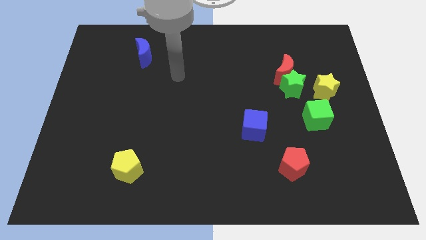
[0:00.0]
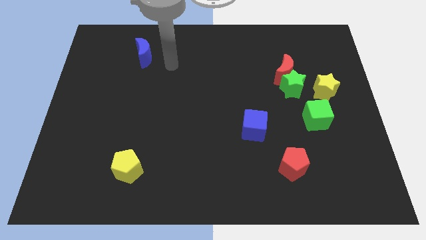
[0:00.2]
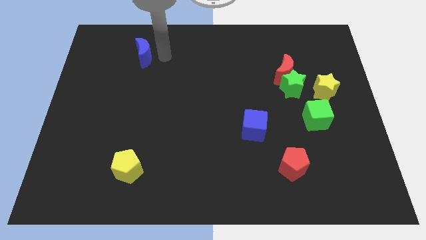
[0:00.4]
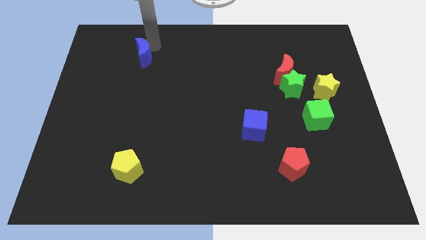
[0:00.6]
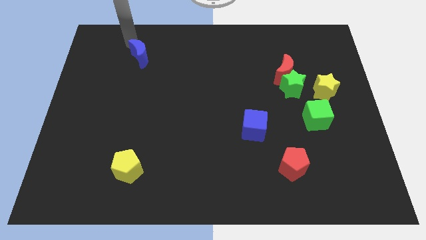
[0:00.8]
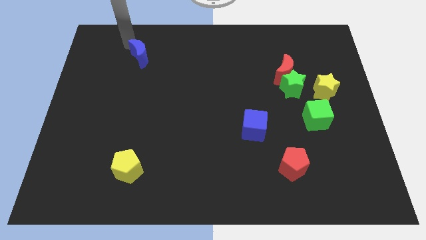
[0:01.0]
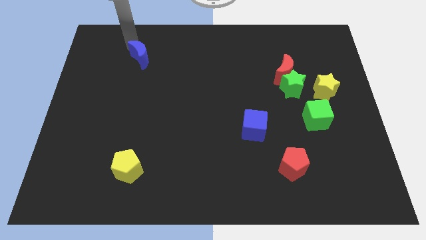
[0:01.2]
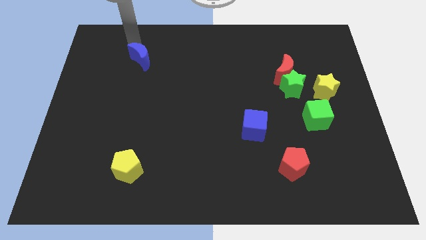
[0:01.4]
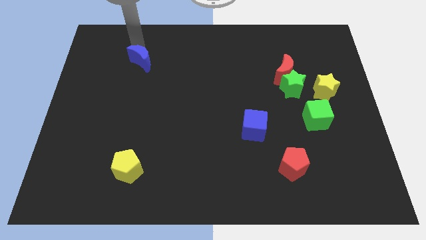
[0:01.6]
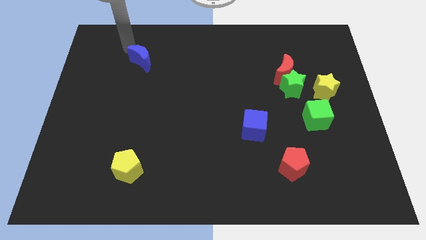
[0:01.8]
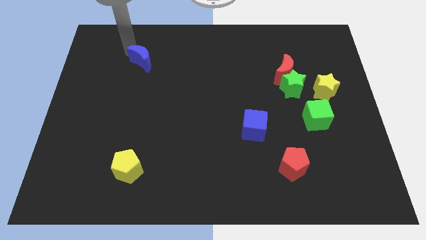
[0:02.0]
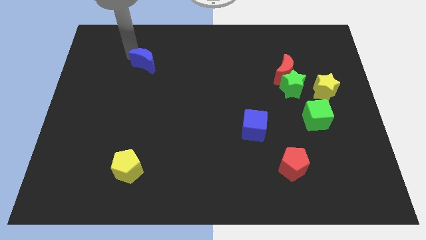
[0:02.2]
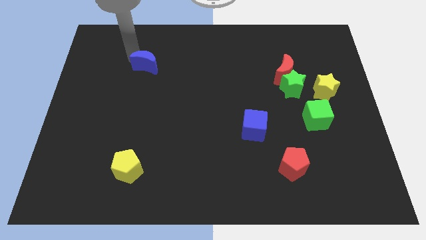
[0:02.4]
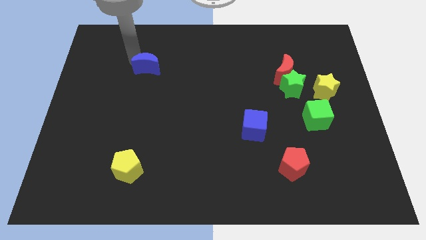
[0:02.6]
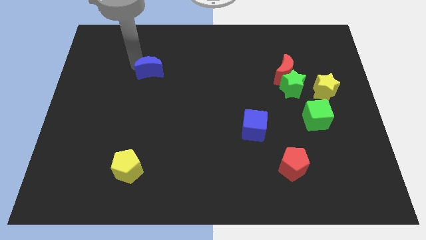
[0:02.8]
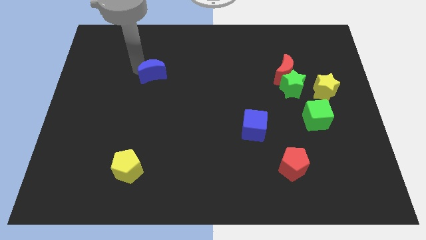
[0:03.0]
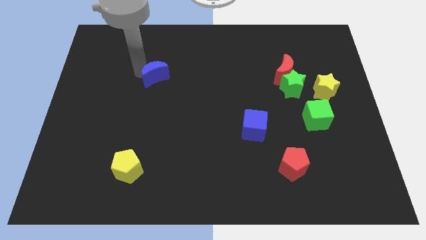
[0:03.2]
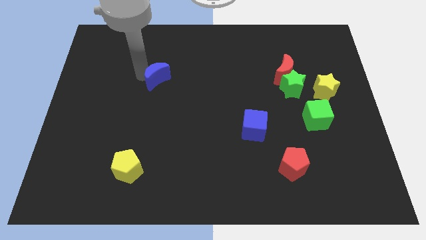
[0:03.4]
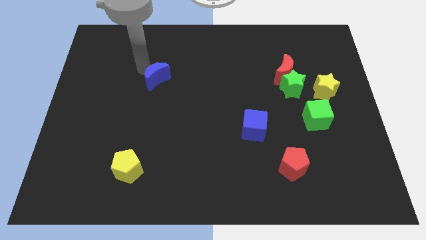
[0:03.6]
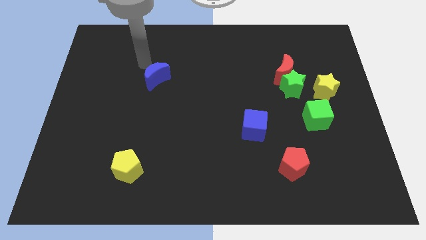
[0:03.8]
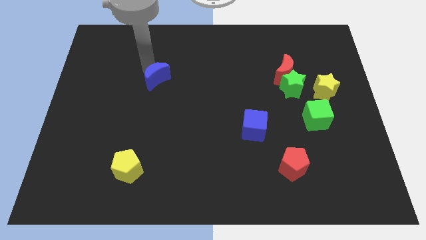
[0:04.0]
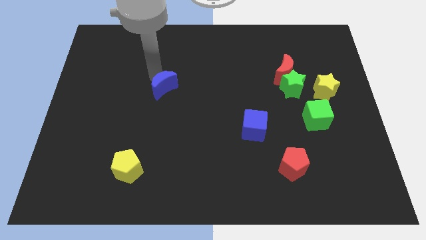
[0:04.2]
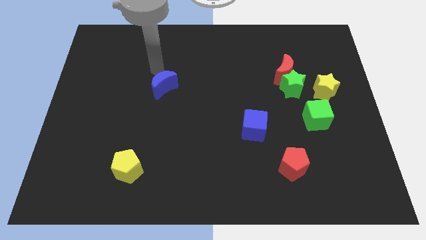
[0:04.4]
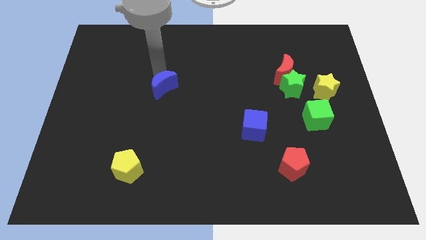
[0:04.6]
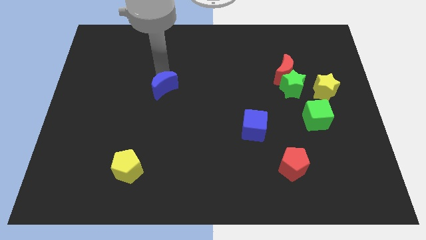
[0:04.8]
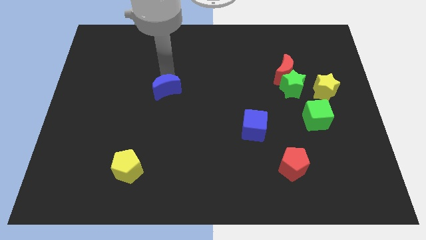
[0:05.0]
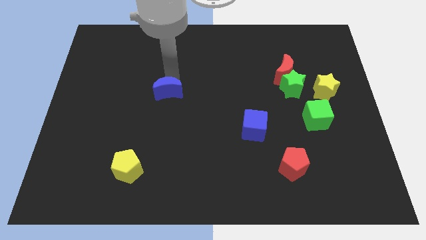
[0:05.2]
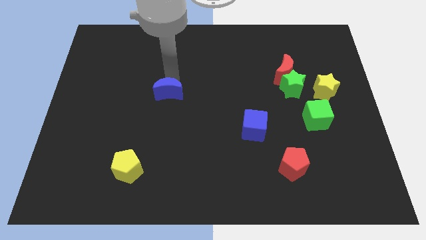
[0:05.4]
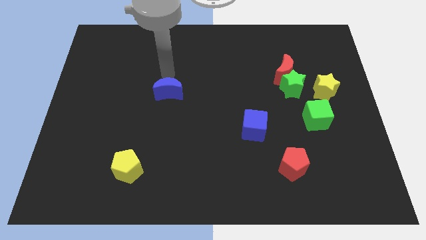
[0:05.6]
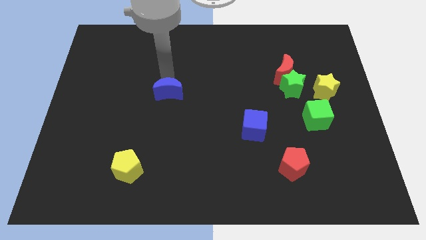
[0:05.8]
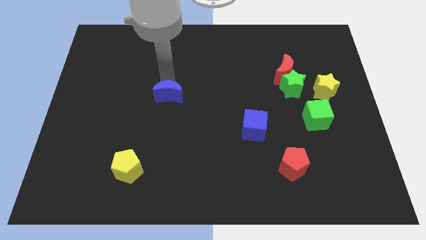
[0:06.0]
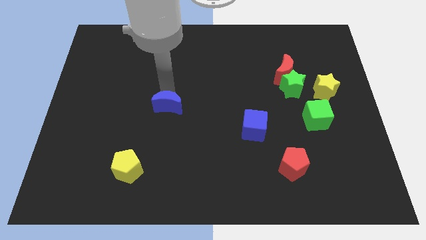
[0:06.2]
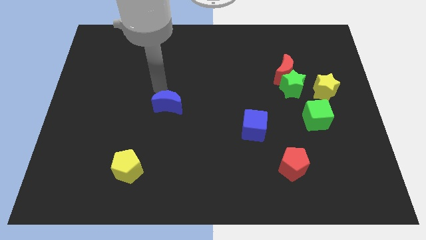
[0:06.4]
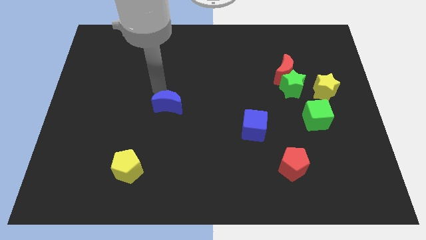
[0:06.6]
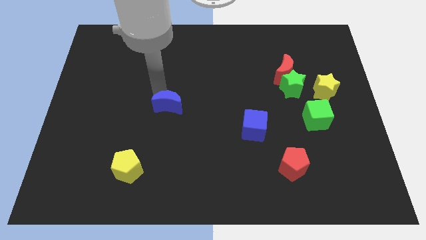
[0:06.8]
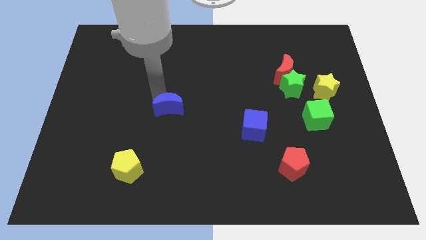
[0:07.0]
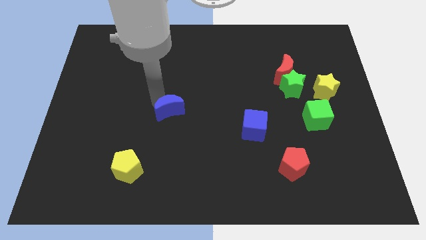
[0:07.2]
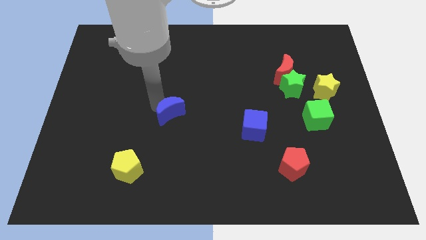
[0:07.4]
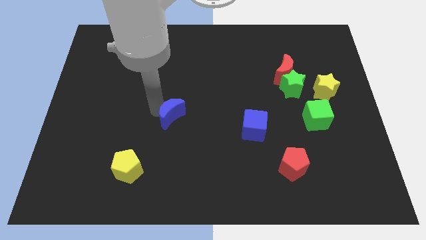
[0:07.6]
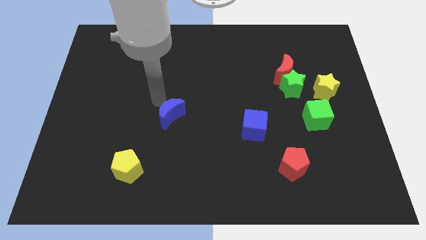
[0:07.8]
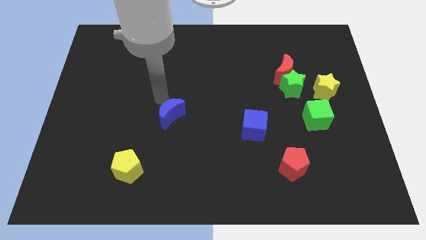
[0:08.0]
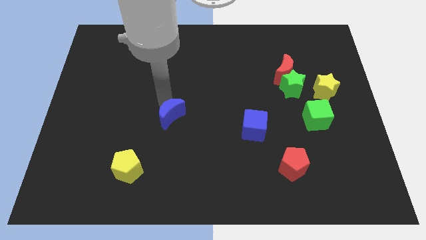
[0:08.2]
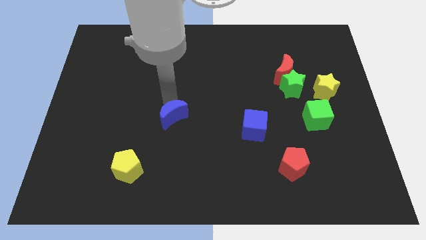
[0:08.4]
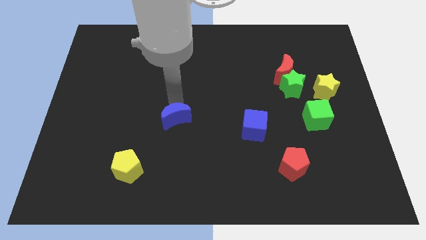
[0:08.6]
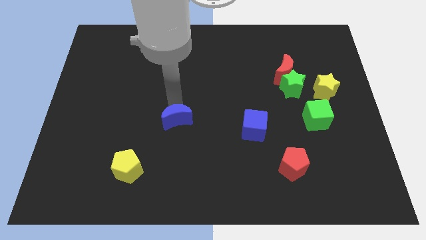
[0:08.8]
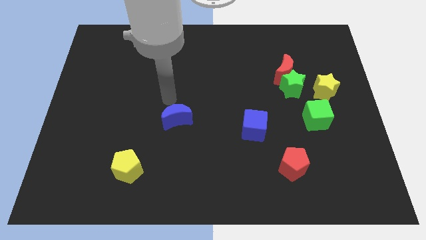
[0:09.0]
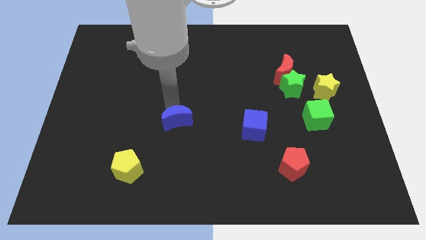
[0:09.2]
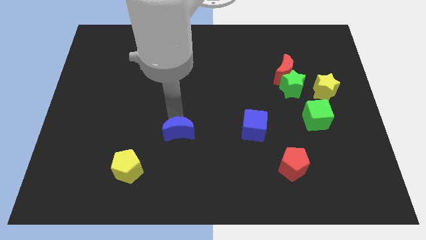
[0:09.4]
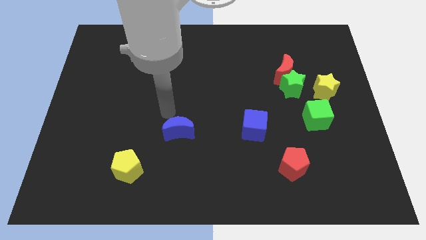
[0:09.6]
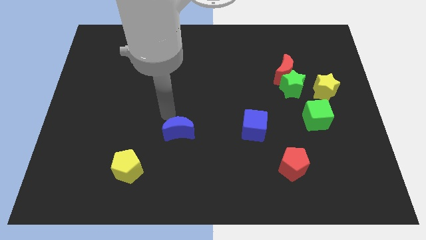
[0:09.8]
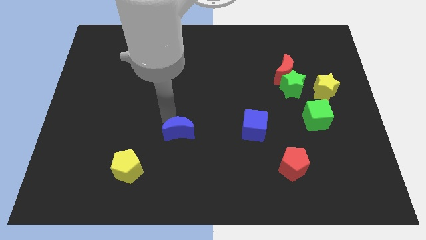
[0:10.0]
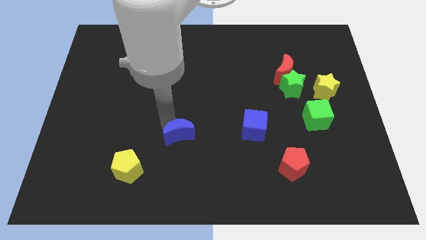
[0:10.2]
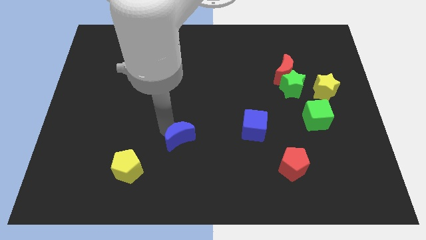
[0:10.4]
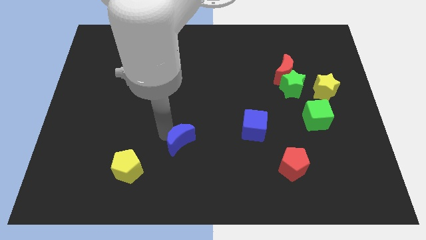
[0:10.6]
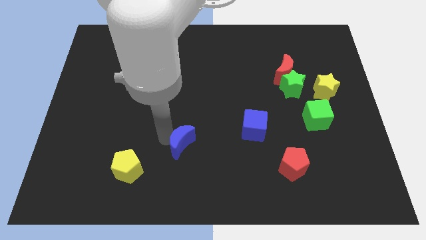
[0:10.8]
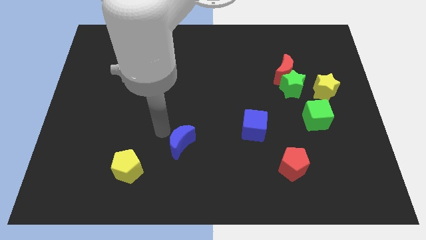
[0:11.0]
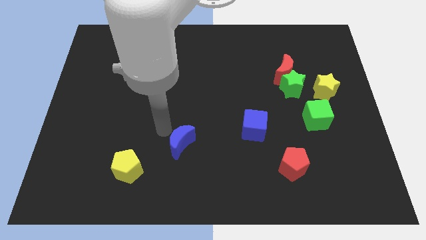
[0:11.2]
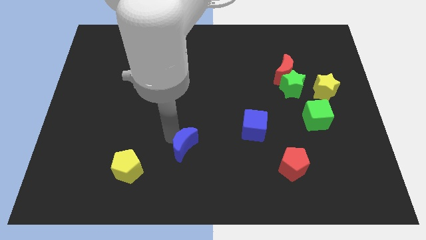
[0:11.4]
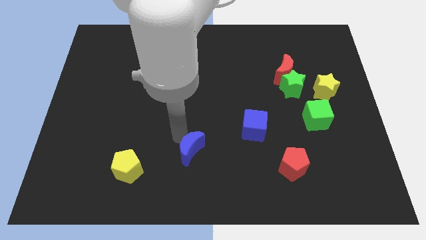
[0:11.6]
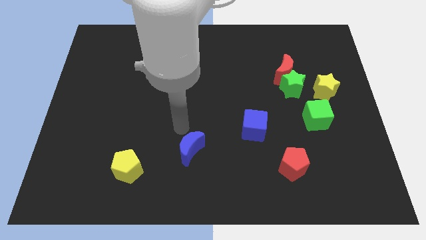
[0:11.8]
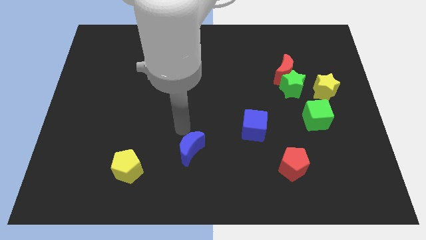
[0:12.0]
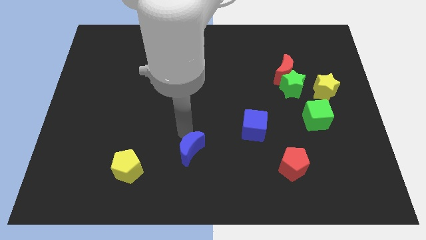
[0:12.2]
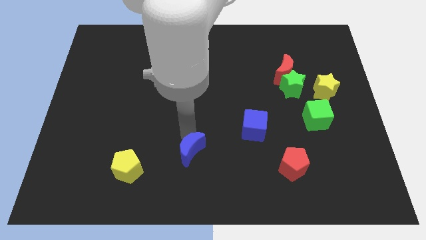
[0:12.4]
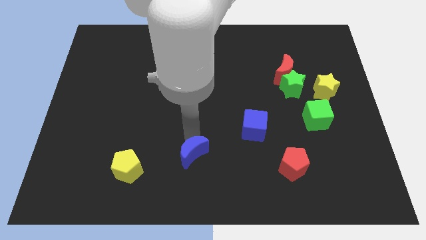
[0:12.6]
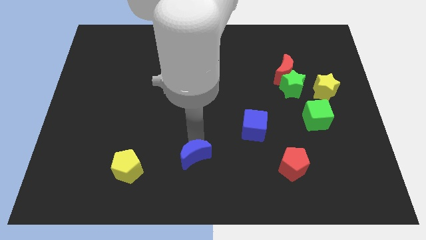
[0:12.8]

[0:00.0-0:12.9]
move the blue moon to the bottom
